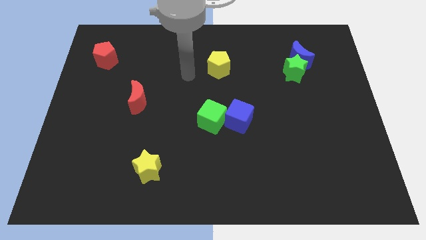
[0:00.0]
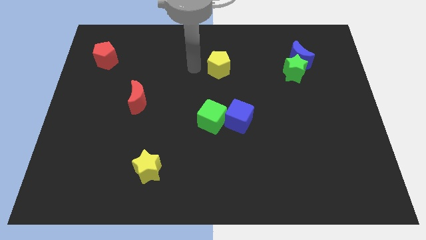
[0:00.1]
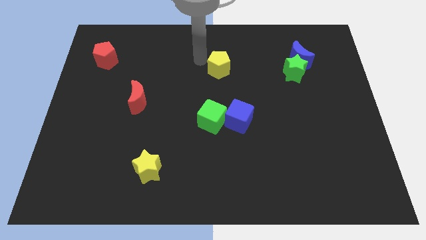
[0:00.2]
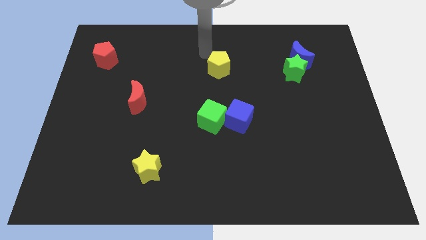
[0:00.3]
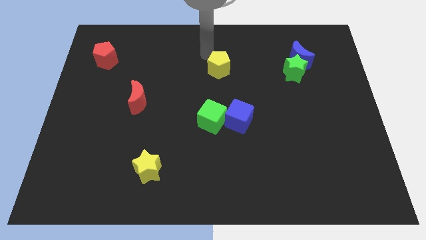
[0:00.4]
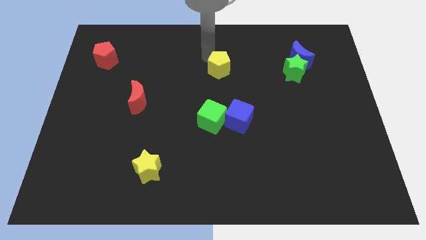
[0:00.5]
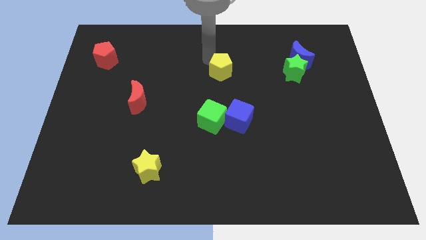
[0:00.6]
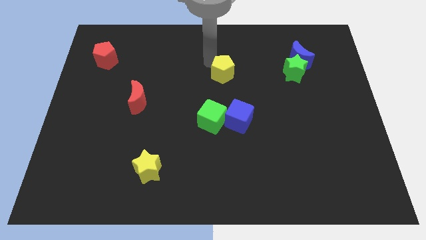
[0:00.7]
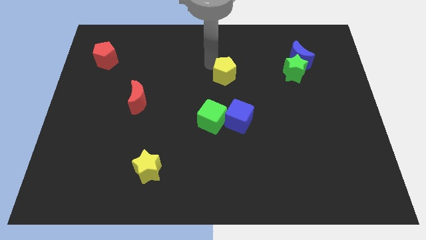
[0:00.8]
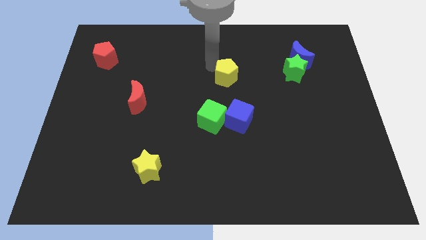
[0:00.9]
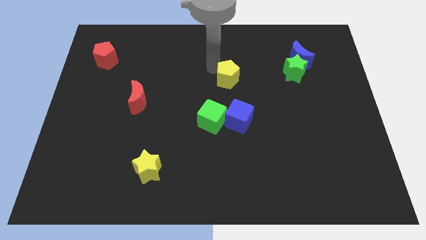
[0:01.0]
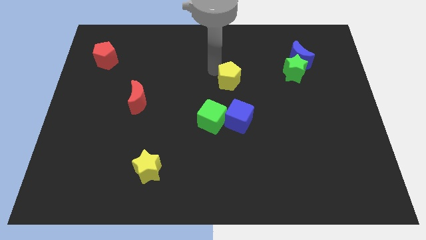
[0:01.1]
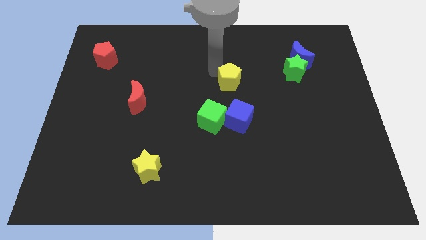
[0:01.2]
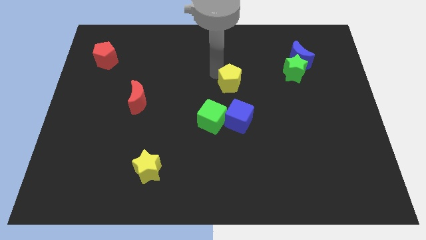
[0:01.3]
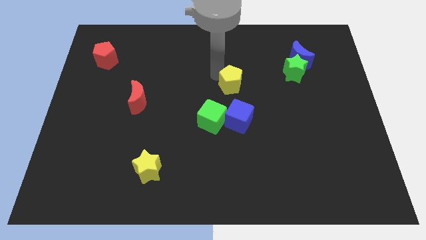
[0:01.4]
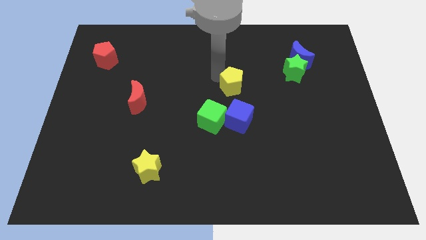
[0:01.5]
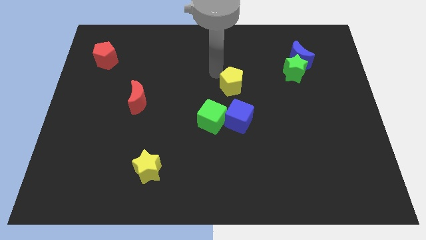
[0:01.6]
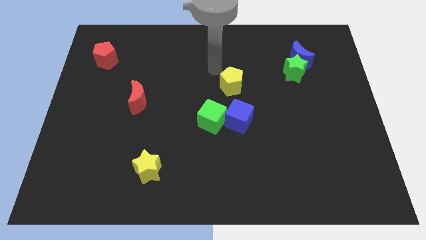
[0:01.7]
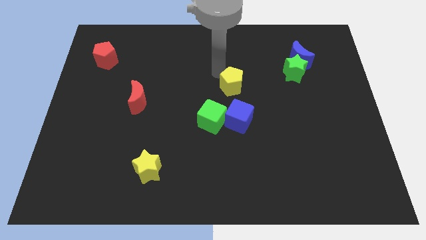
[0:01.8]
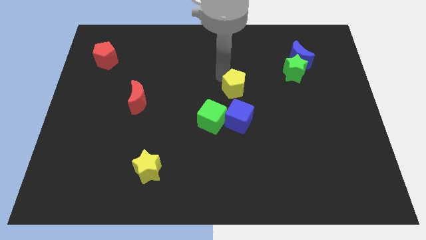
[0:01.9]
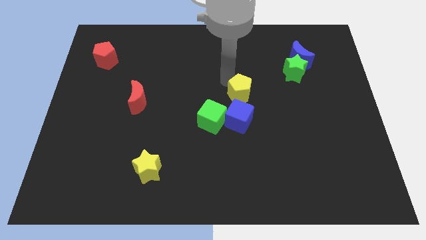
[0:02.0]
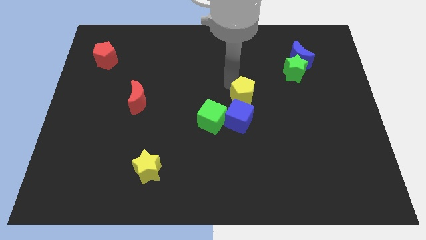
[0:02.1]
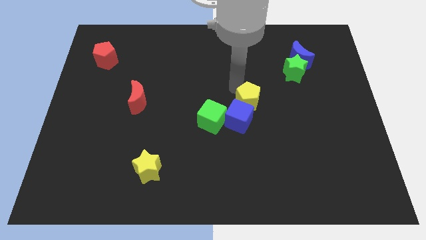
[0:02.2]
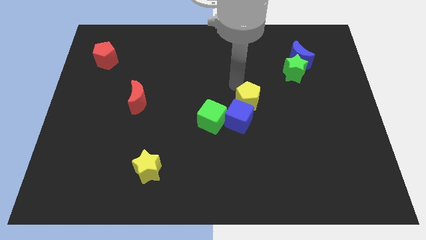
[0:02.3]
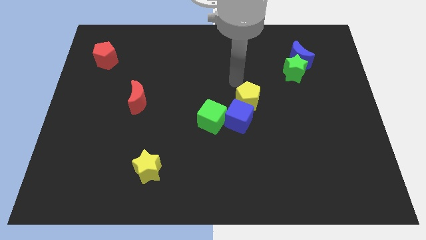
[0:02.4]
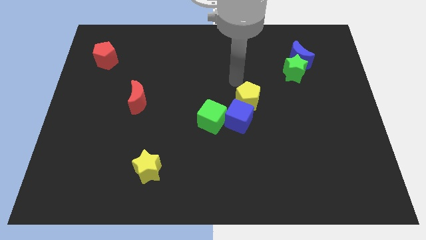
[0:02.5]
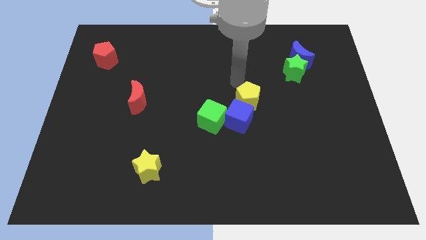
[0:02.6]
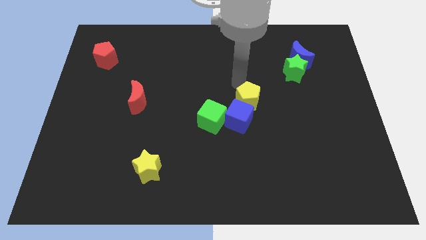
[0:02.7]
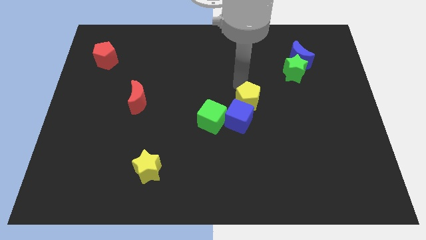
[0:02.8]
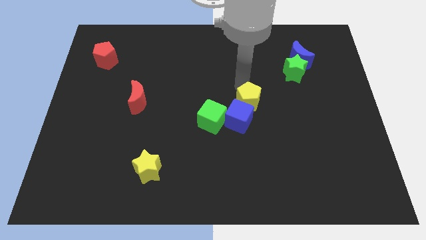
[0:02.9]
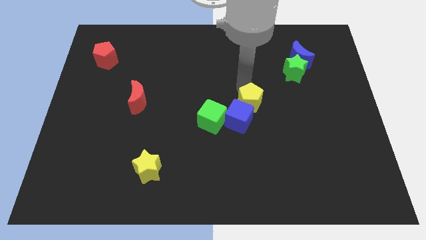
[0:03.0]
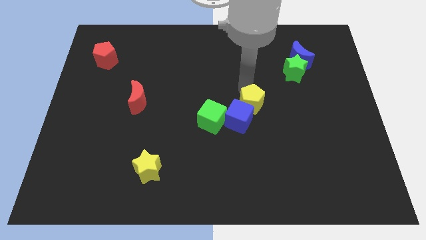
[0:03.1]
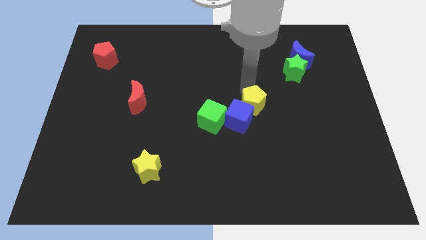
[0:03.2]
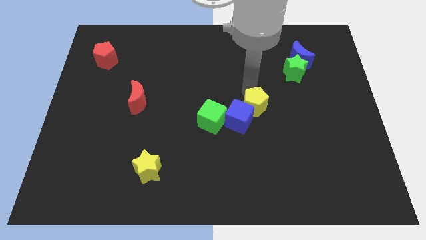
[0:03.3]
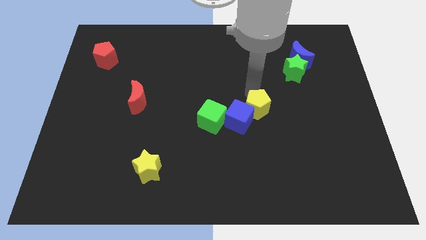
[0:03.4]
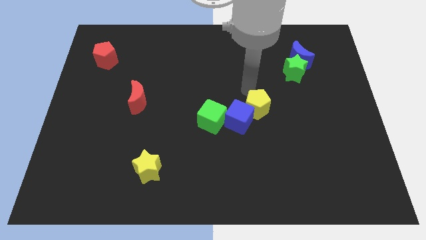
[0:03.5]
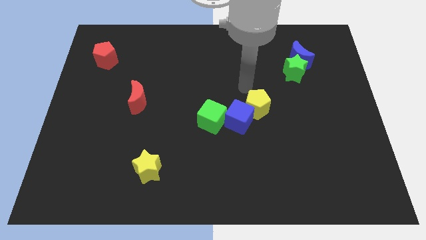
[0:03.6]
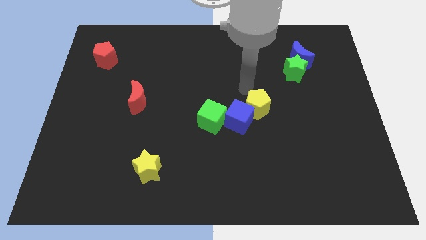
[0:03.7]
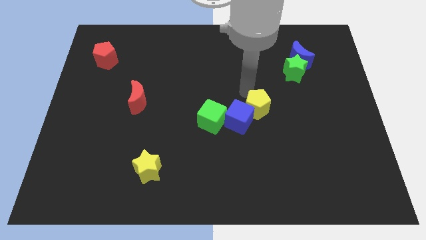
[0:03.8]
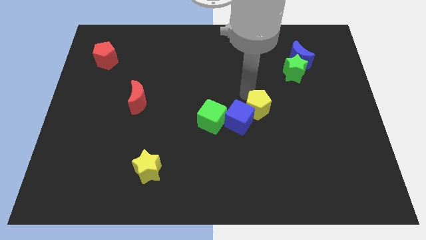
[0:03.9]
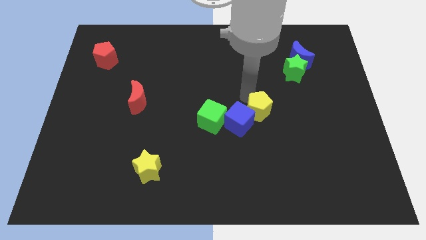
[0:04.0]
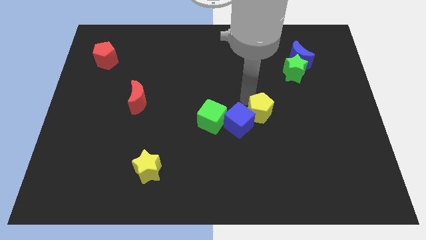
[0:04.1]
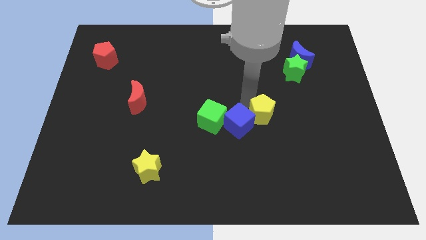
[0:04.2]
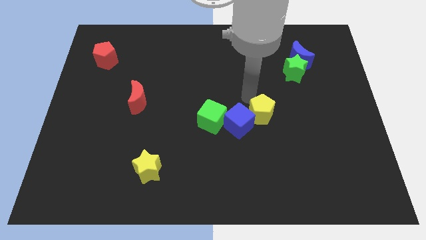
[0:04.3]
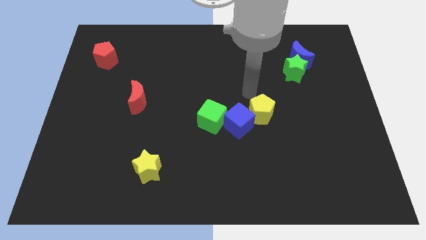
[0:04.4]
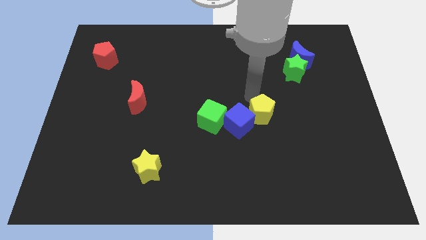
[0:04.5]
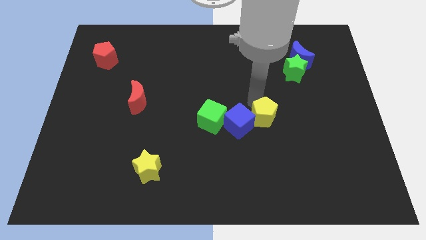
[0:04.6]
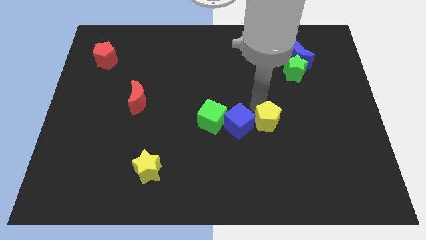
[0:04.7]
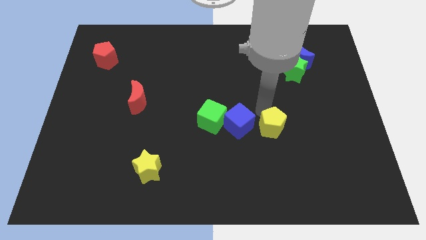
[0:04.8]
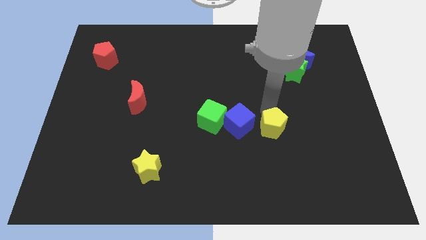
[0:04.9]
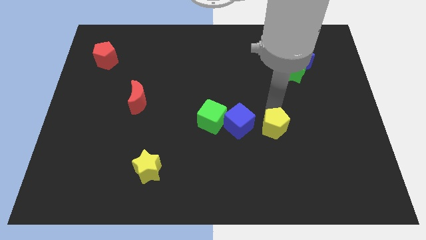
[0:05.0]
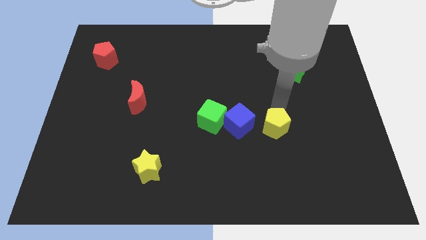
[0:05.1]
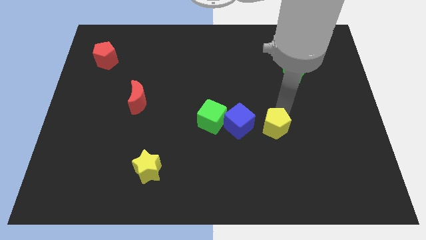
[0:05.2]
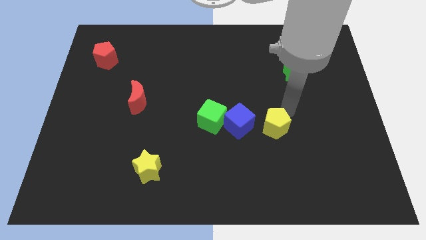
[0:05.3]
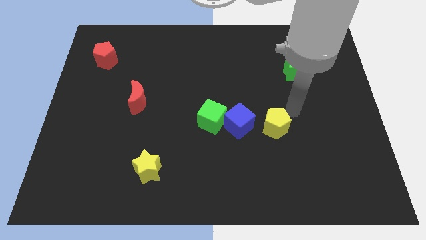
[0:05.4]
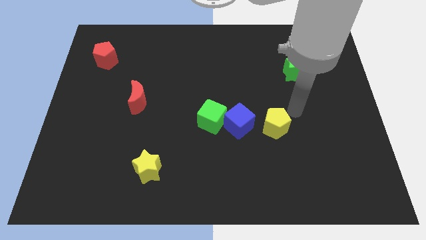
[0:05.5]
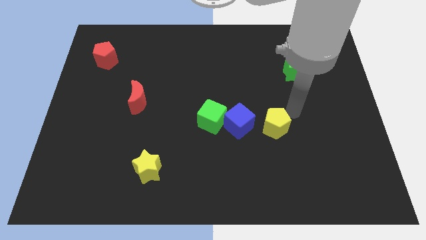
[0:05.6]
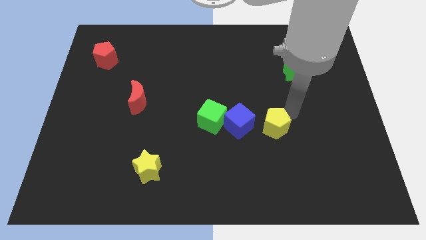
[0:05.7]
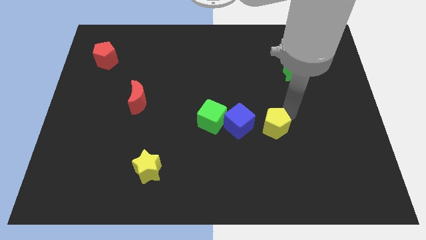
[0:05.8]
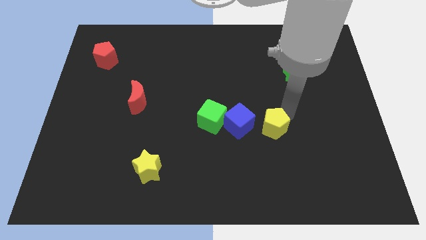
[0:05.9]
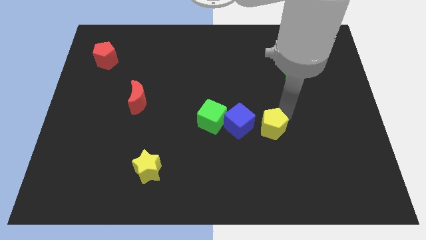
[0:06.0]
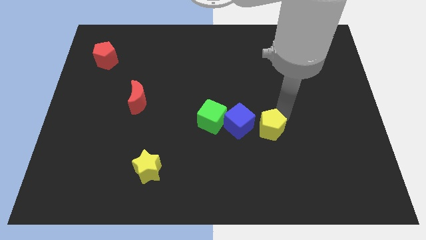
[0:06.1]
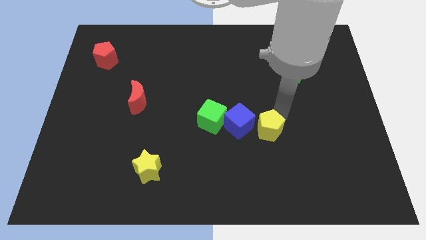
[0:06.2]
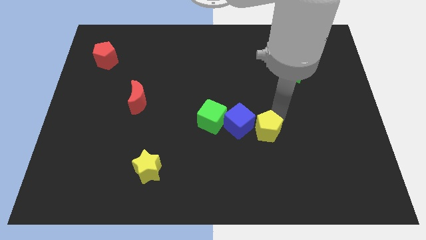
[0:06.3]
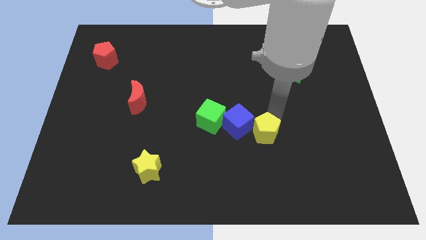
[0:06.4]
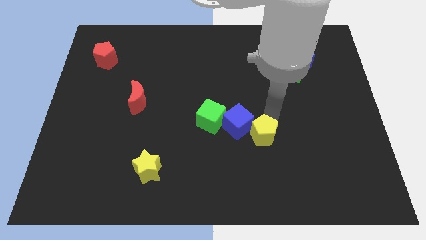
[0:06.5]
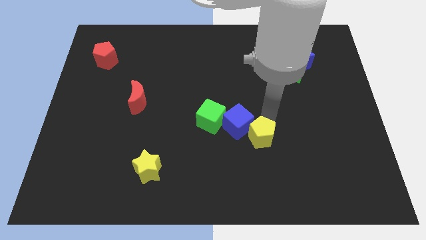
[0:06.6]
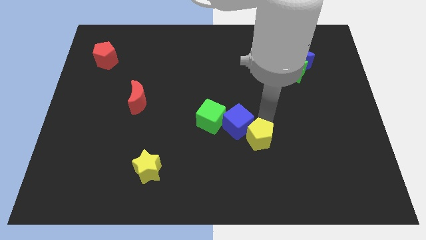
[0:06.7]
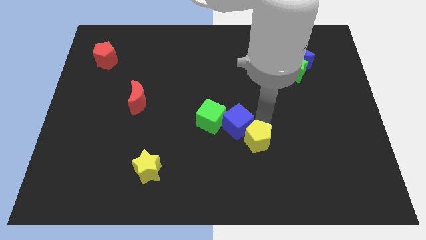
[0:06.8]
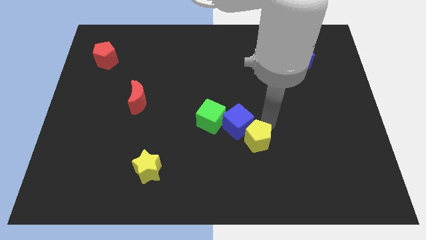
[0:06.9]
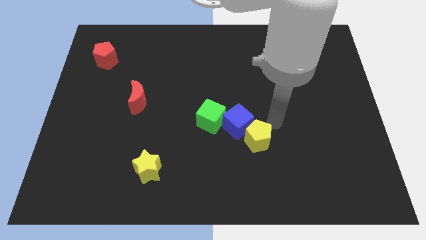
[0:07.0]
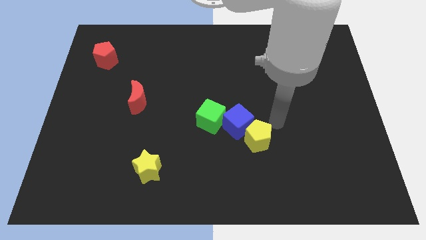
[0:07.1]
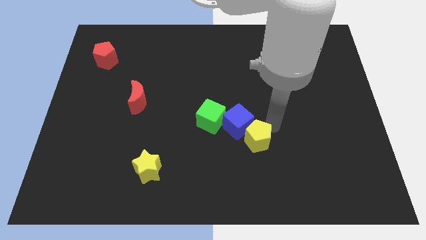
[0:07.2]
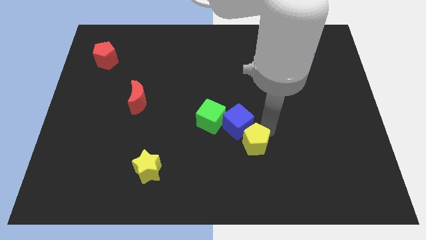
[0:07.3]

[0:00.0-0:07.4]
move the yellow pentagon down

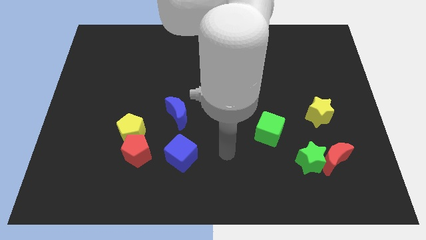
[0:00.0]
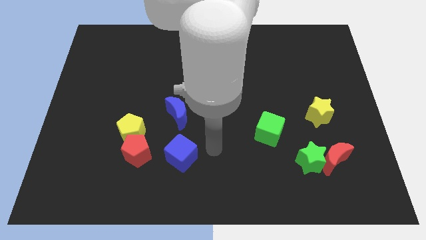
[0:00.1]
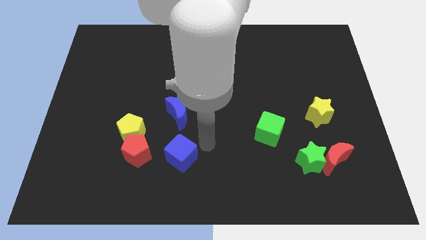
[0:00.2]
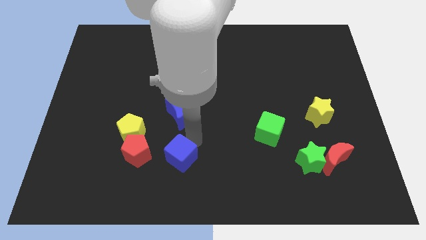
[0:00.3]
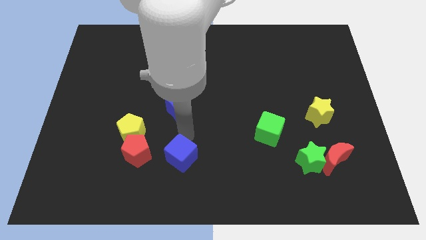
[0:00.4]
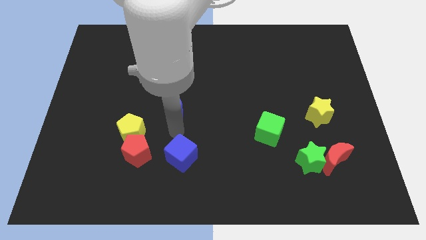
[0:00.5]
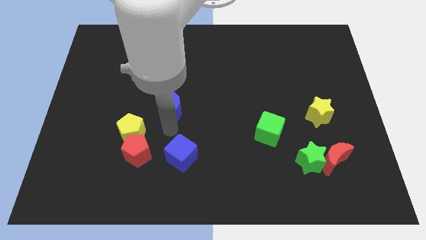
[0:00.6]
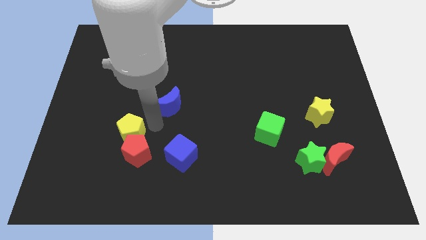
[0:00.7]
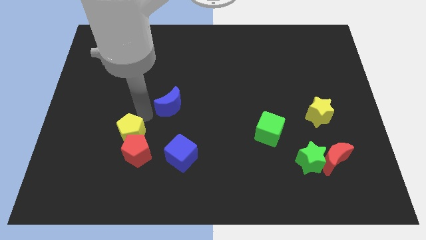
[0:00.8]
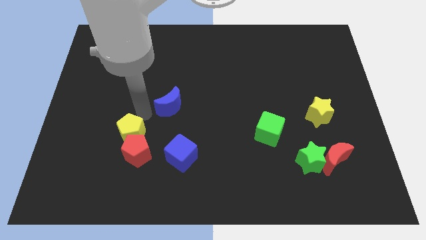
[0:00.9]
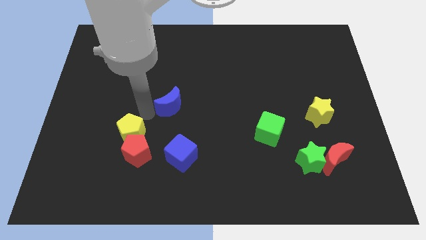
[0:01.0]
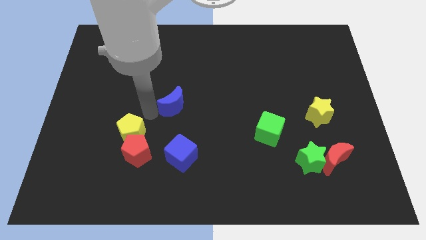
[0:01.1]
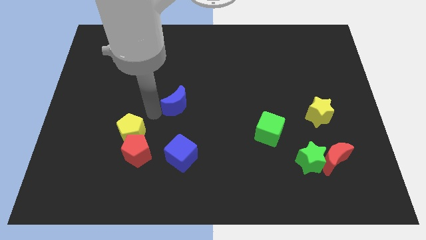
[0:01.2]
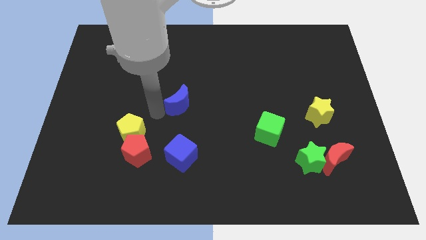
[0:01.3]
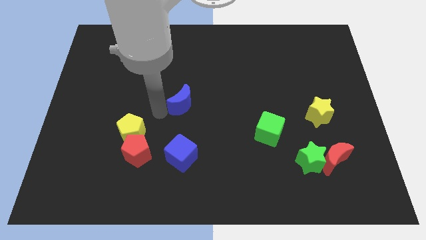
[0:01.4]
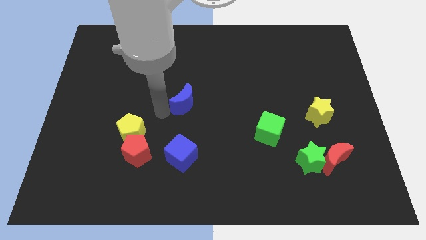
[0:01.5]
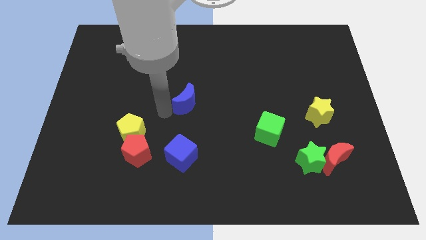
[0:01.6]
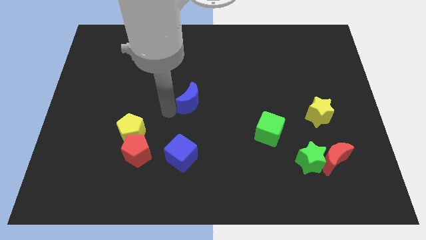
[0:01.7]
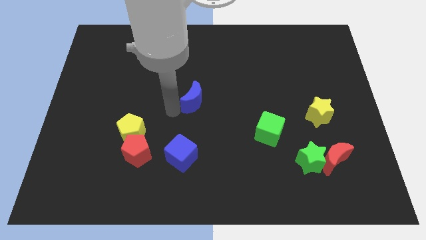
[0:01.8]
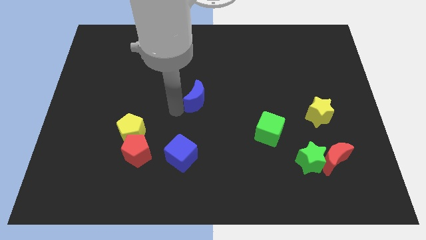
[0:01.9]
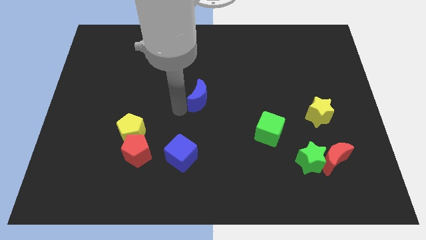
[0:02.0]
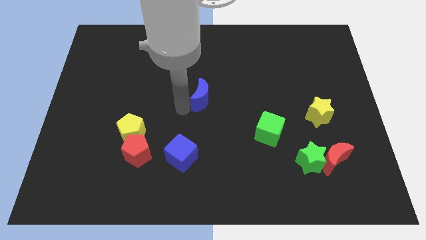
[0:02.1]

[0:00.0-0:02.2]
move the blue moon somewhat diagonally upwards and right
